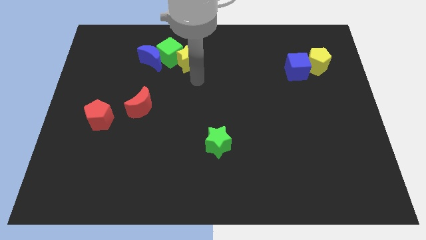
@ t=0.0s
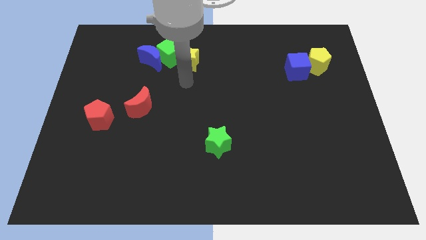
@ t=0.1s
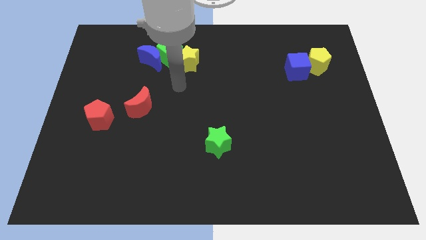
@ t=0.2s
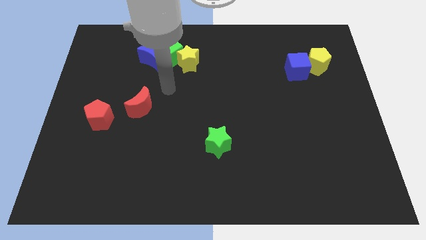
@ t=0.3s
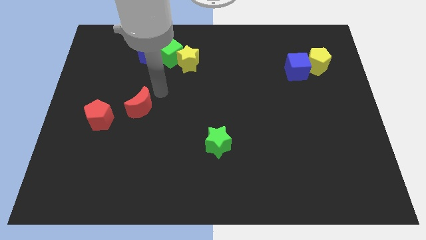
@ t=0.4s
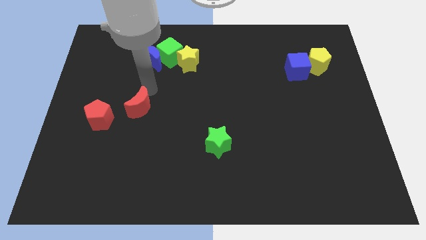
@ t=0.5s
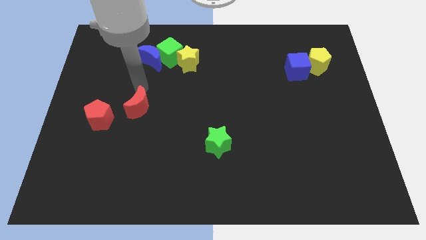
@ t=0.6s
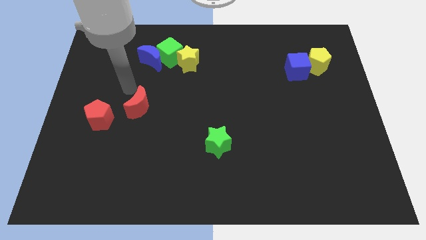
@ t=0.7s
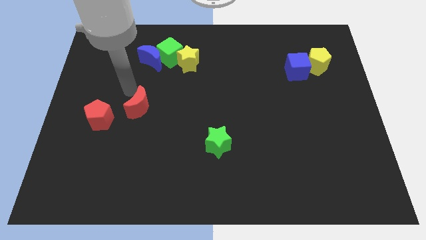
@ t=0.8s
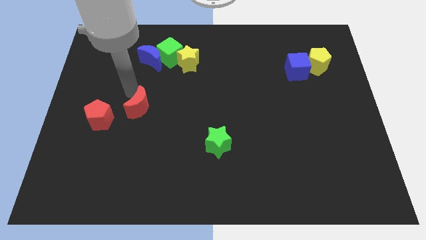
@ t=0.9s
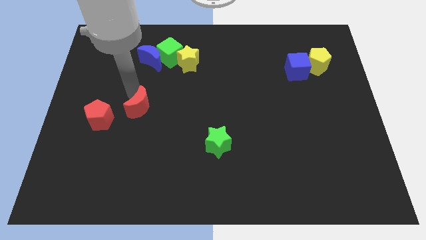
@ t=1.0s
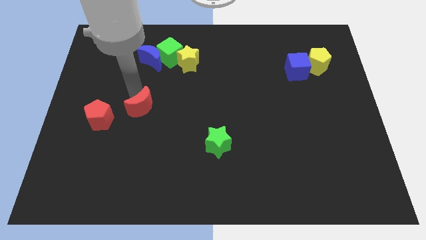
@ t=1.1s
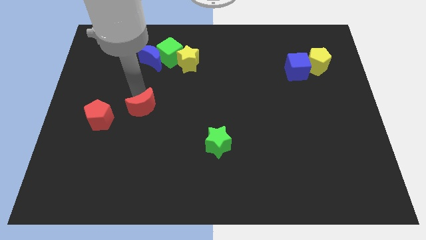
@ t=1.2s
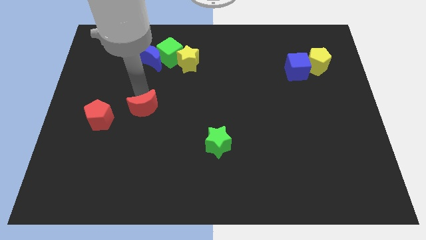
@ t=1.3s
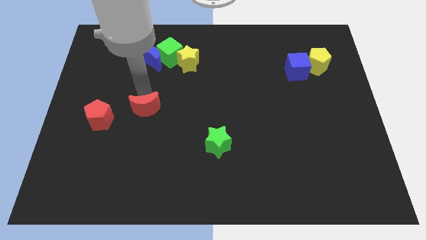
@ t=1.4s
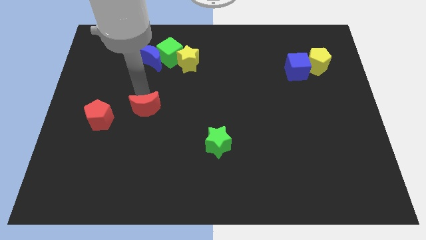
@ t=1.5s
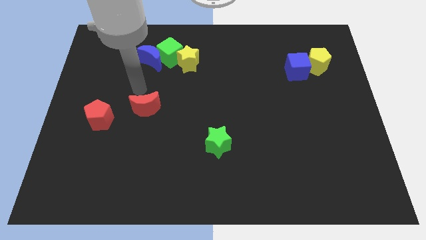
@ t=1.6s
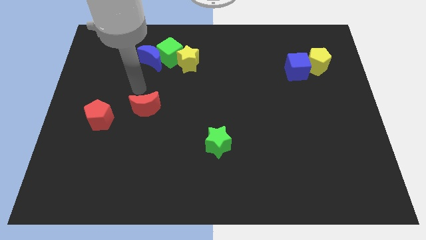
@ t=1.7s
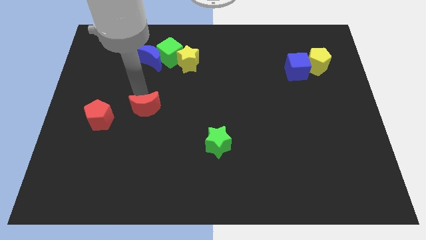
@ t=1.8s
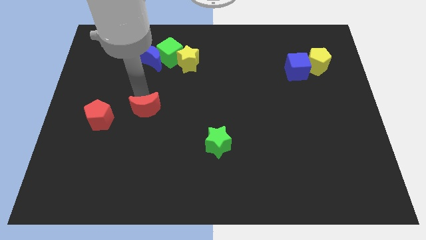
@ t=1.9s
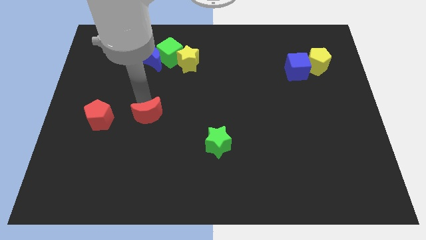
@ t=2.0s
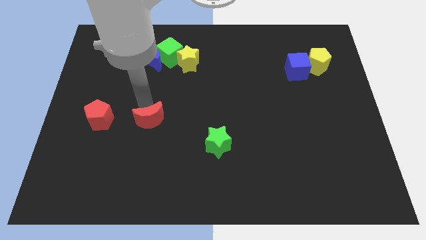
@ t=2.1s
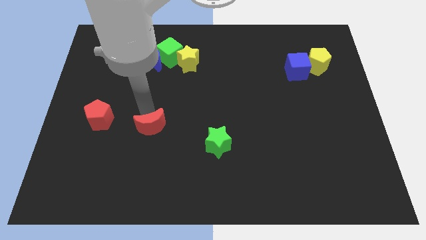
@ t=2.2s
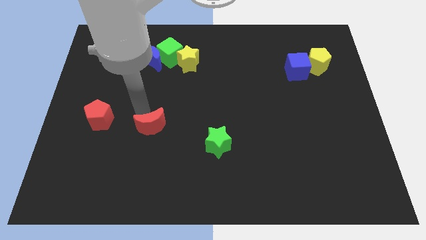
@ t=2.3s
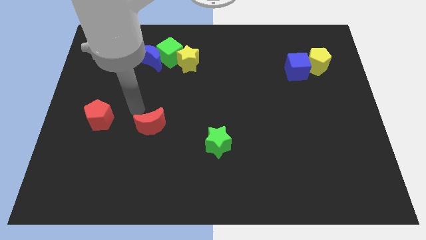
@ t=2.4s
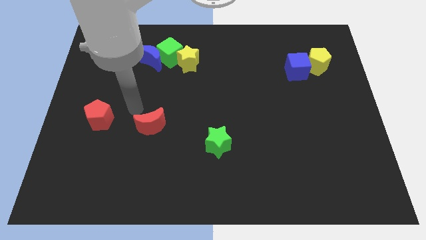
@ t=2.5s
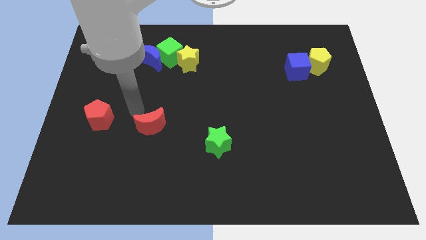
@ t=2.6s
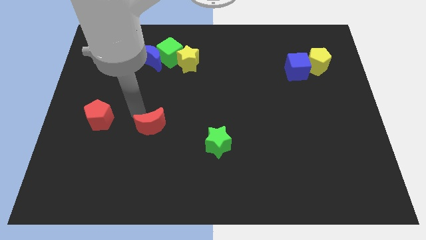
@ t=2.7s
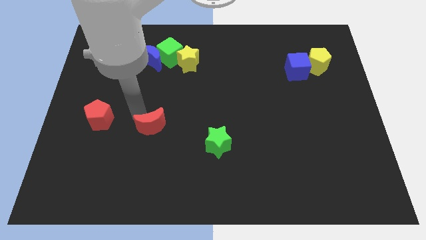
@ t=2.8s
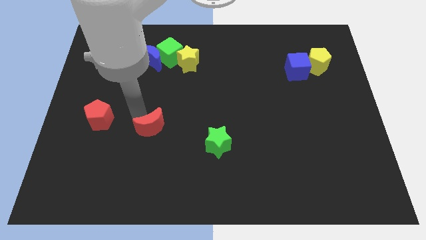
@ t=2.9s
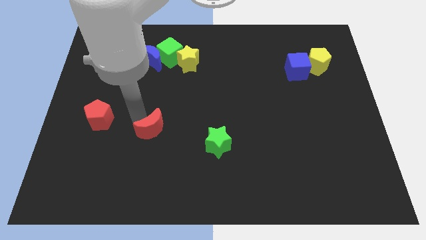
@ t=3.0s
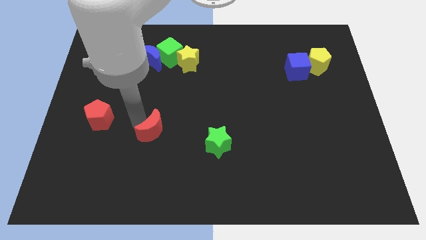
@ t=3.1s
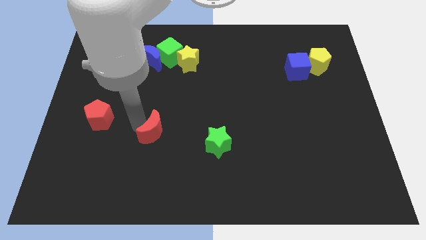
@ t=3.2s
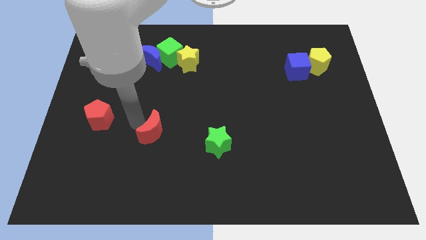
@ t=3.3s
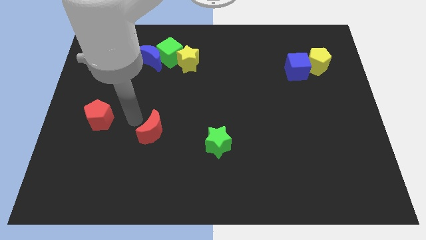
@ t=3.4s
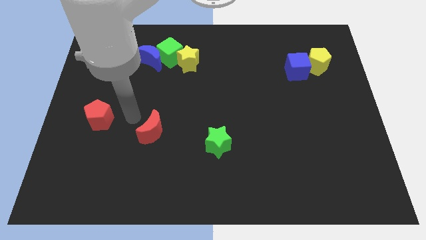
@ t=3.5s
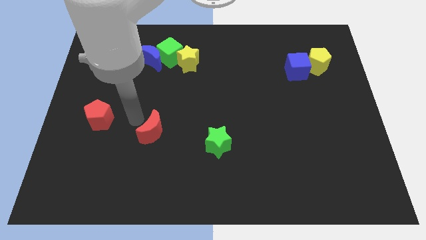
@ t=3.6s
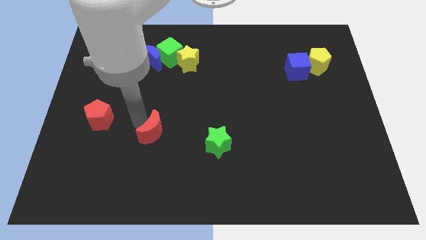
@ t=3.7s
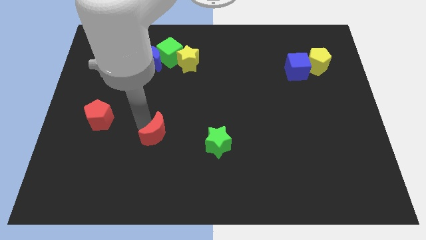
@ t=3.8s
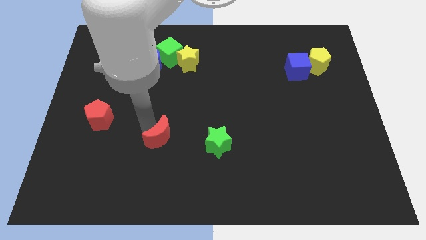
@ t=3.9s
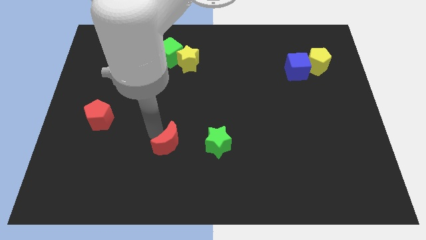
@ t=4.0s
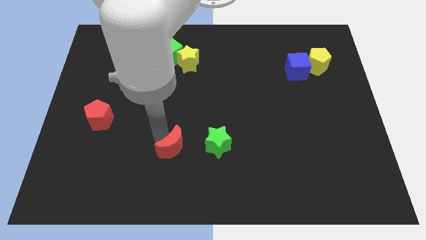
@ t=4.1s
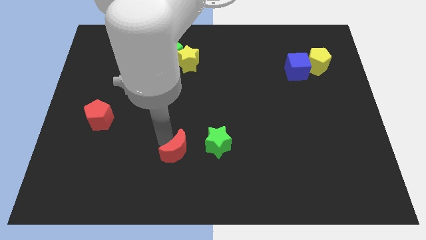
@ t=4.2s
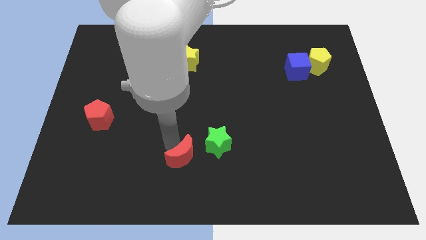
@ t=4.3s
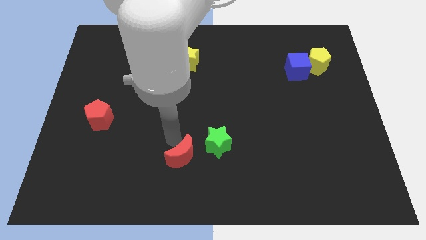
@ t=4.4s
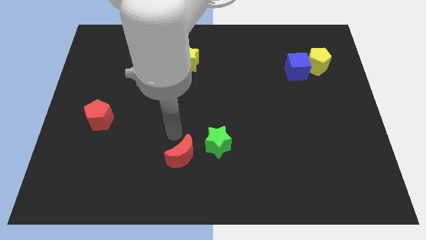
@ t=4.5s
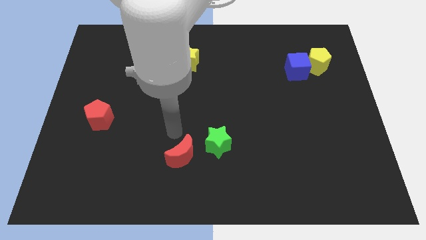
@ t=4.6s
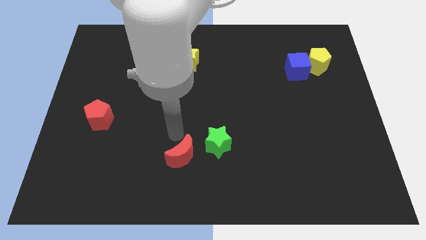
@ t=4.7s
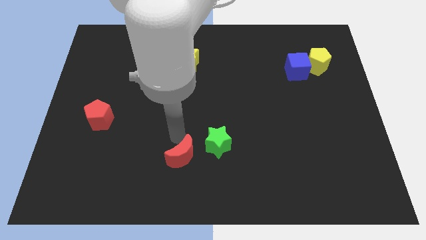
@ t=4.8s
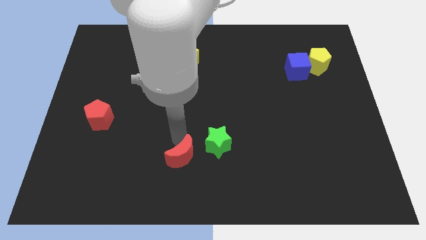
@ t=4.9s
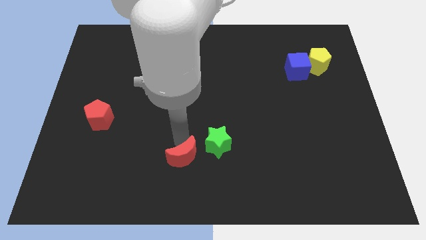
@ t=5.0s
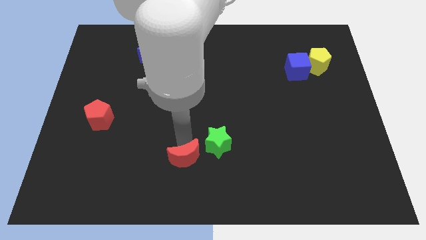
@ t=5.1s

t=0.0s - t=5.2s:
put the red moon to the bottom side

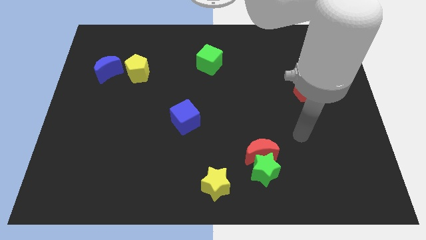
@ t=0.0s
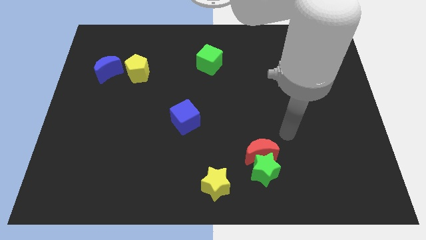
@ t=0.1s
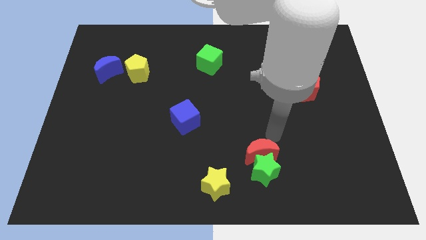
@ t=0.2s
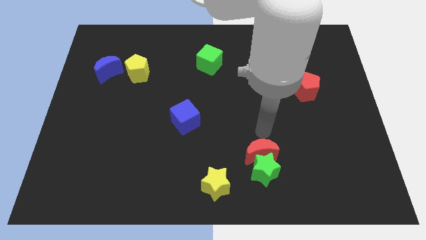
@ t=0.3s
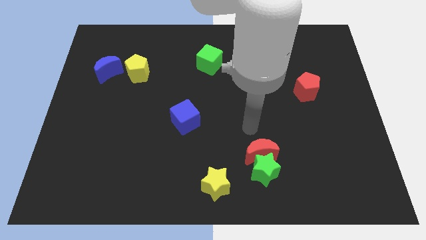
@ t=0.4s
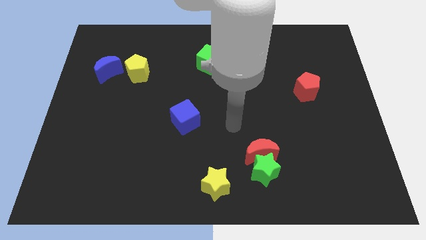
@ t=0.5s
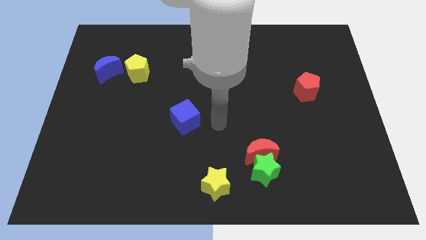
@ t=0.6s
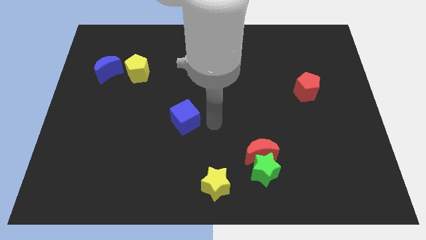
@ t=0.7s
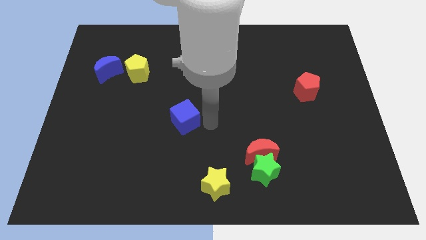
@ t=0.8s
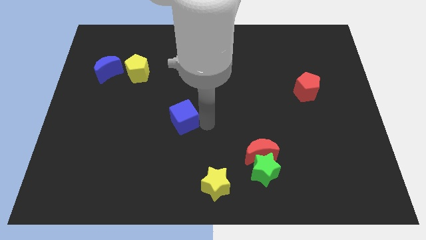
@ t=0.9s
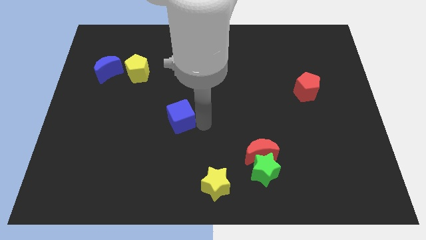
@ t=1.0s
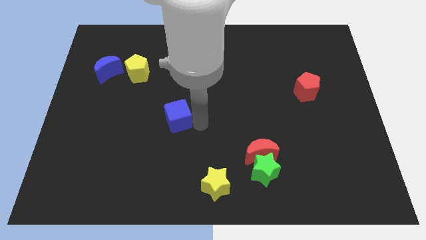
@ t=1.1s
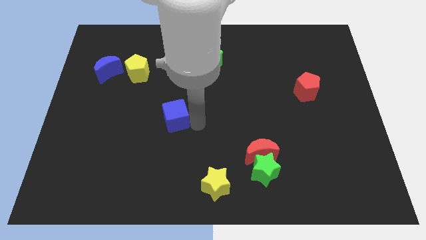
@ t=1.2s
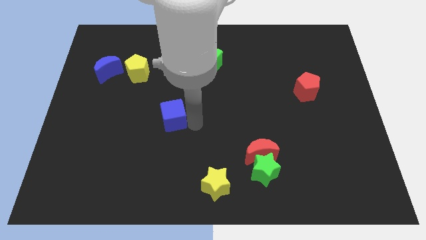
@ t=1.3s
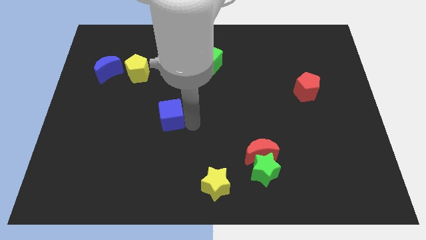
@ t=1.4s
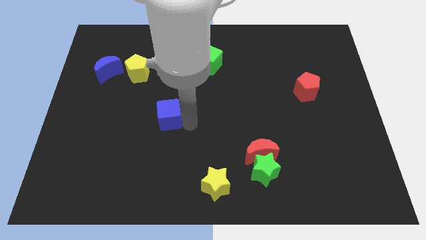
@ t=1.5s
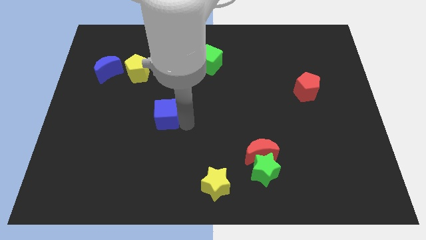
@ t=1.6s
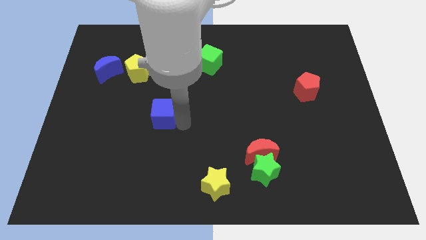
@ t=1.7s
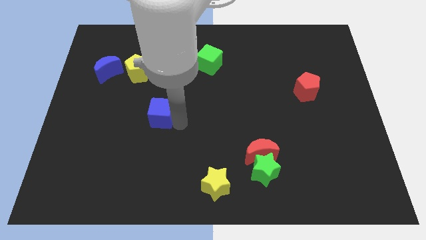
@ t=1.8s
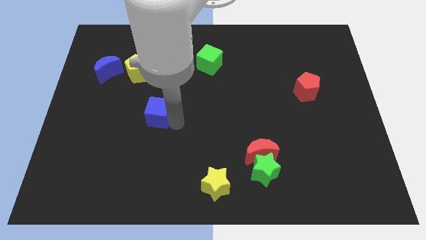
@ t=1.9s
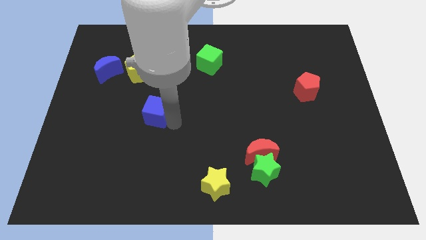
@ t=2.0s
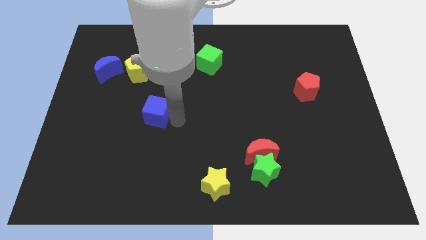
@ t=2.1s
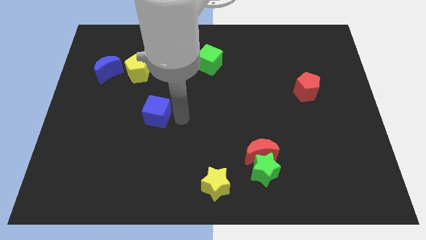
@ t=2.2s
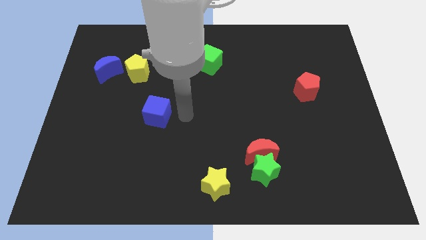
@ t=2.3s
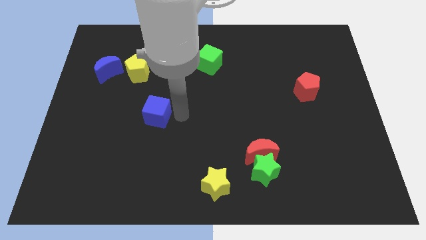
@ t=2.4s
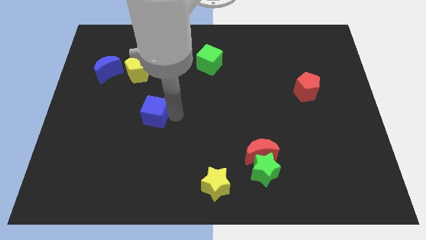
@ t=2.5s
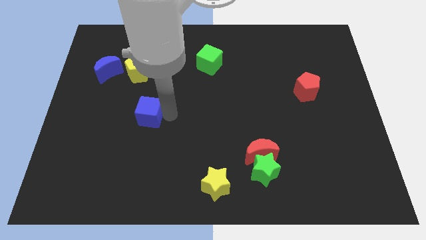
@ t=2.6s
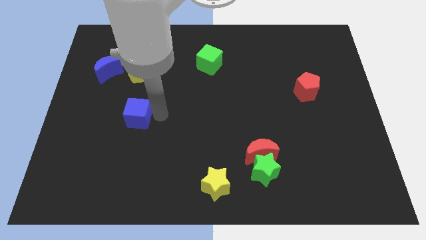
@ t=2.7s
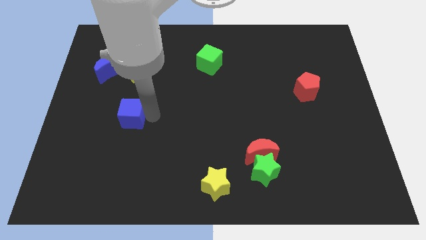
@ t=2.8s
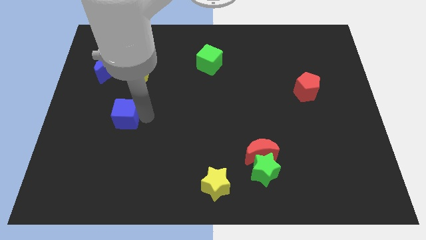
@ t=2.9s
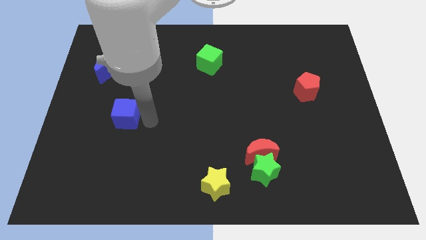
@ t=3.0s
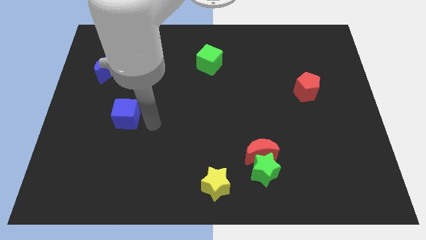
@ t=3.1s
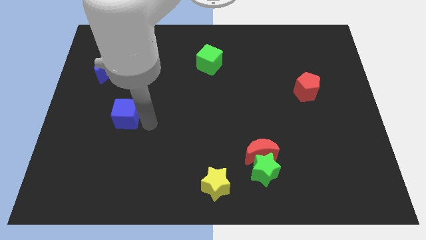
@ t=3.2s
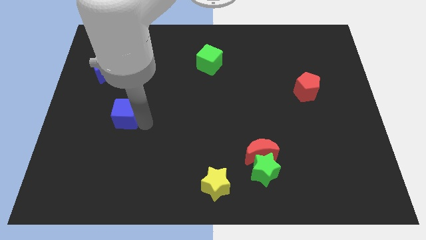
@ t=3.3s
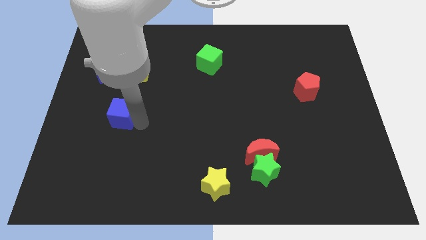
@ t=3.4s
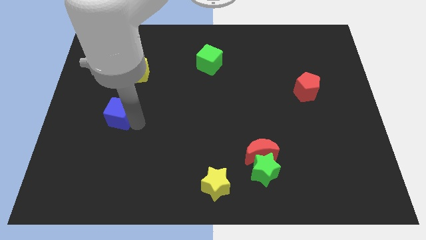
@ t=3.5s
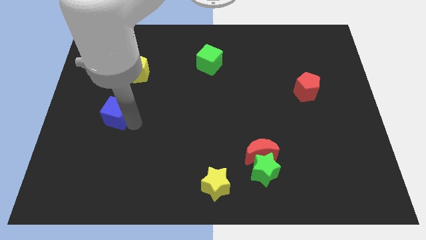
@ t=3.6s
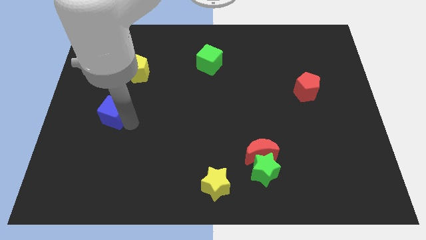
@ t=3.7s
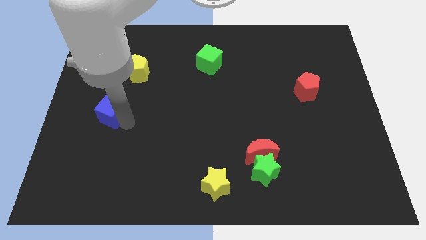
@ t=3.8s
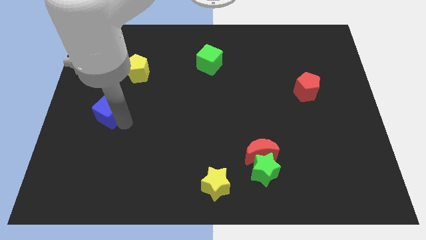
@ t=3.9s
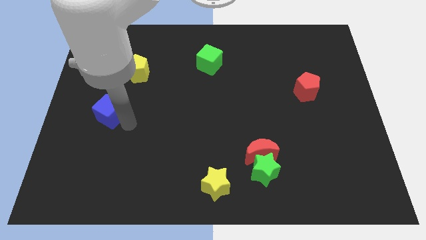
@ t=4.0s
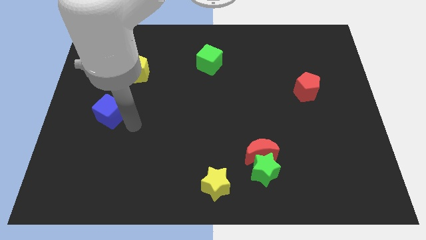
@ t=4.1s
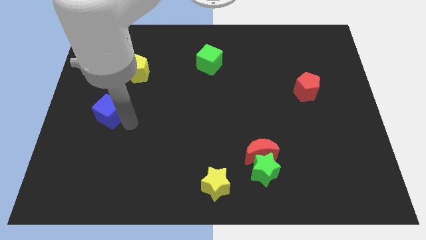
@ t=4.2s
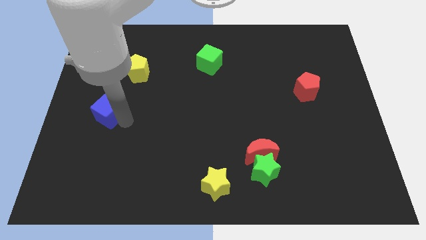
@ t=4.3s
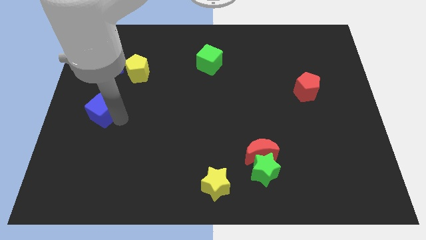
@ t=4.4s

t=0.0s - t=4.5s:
move the blue cube to the left side
